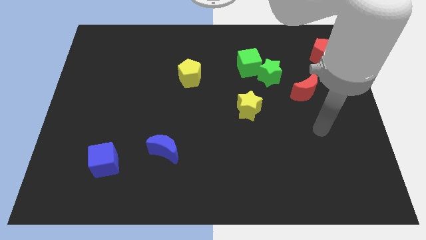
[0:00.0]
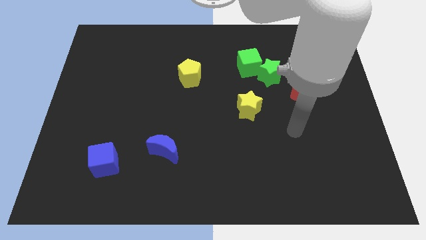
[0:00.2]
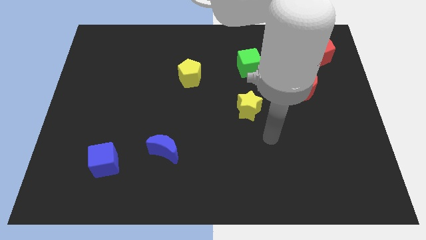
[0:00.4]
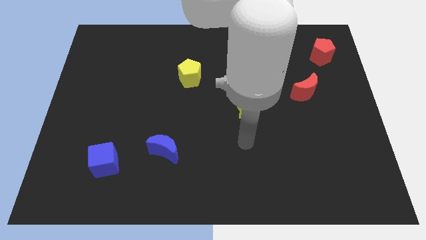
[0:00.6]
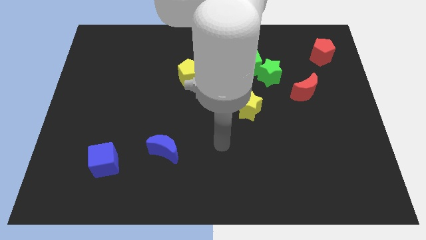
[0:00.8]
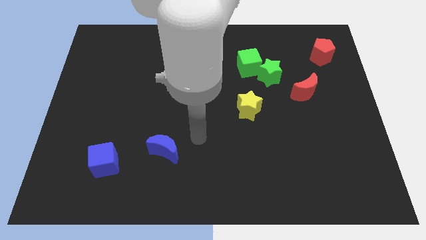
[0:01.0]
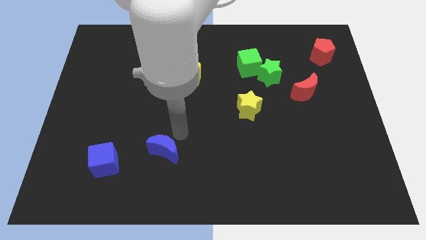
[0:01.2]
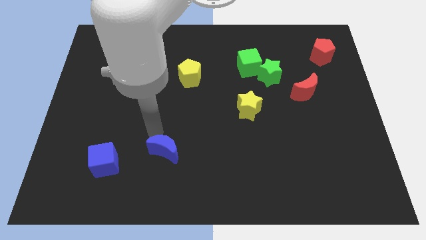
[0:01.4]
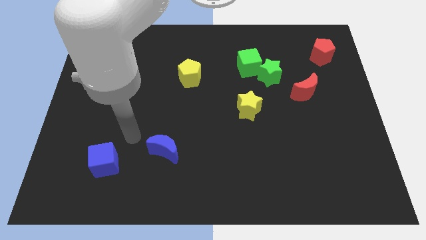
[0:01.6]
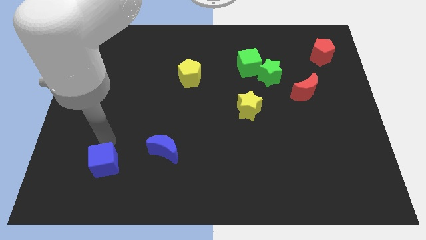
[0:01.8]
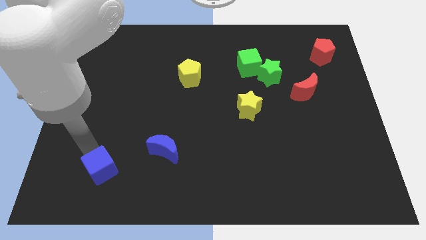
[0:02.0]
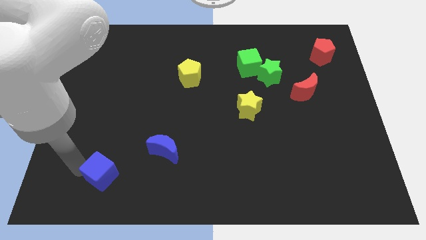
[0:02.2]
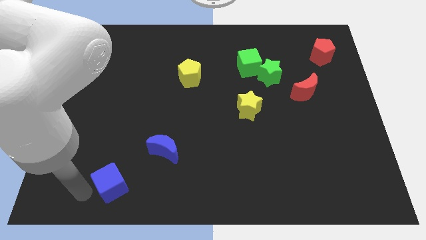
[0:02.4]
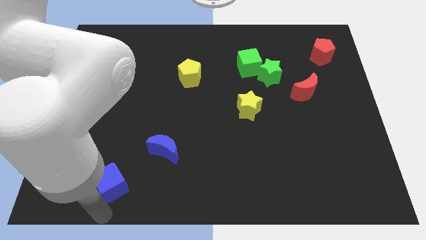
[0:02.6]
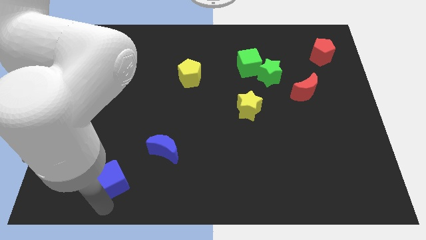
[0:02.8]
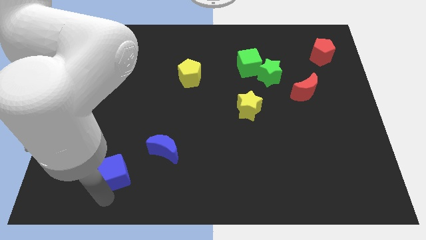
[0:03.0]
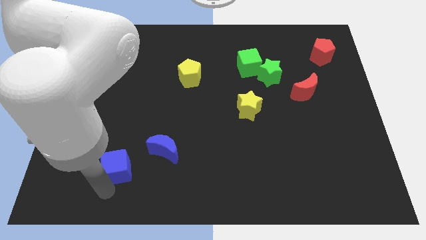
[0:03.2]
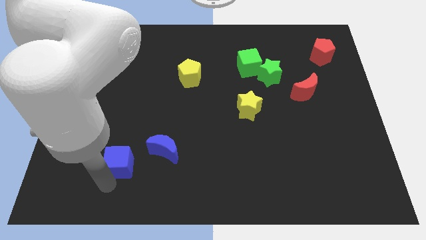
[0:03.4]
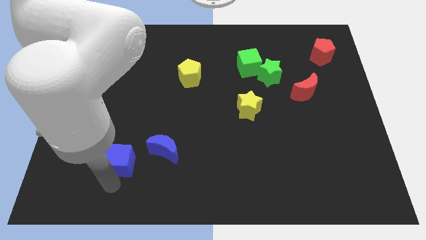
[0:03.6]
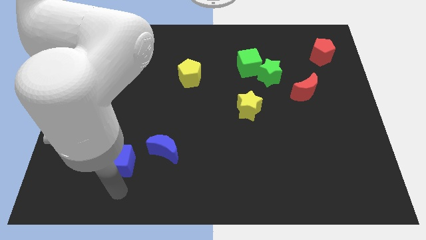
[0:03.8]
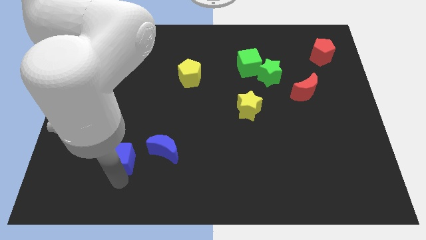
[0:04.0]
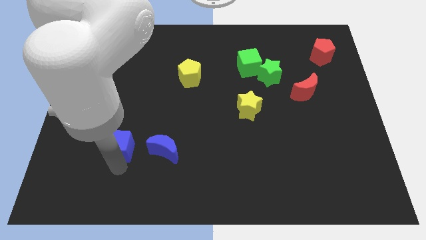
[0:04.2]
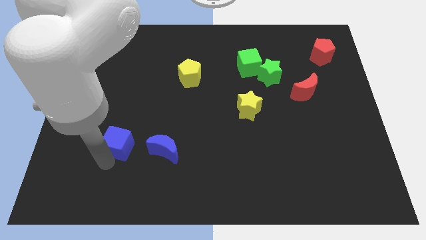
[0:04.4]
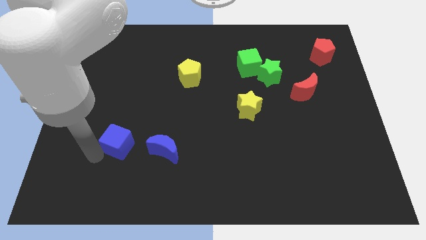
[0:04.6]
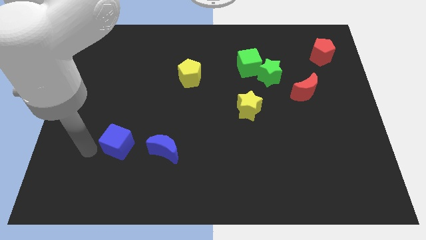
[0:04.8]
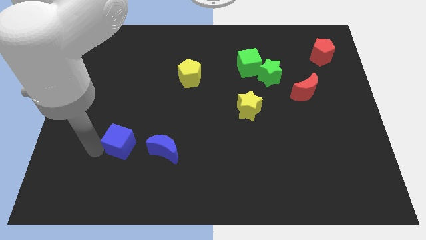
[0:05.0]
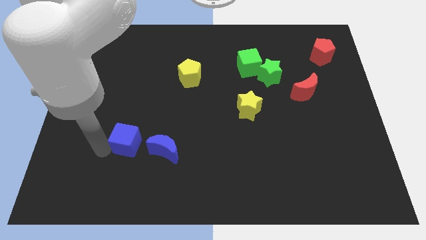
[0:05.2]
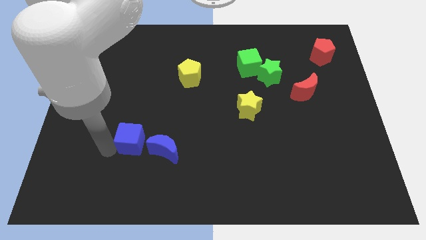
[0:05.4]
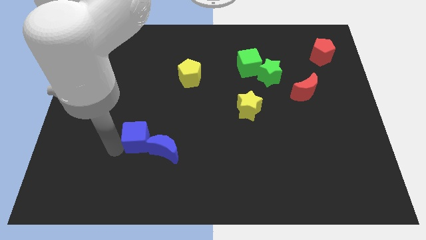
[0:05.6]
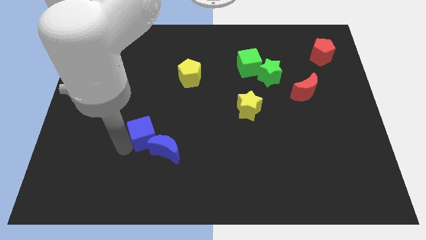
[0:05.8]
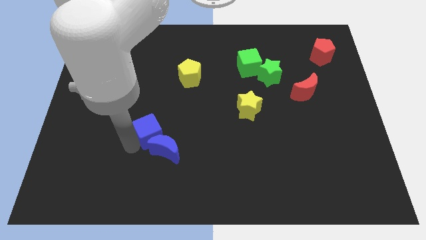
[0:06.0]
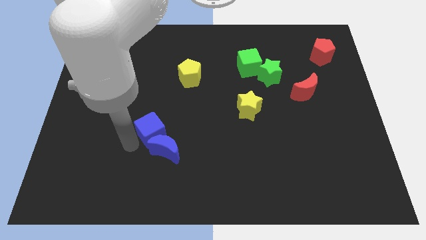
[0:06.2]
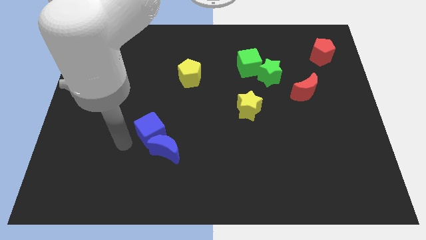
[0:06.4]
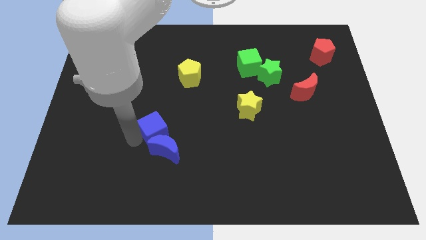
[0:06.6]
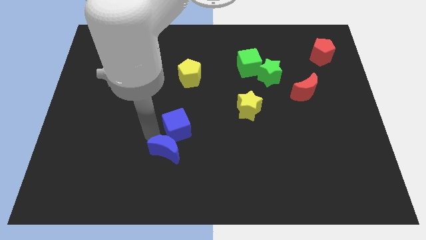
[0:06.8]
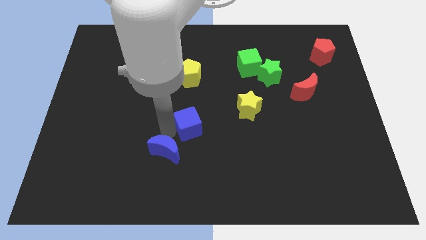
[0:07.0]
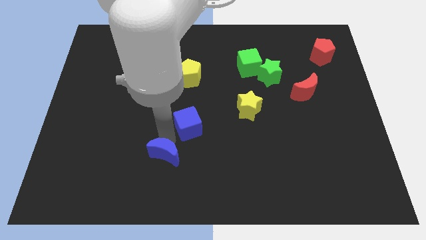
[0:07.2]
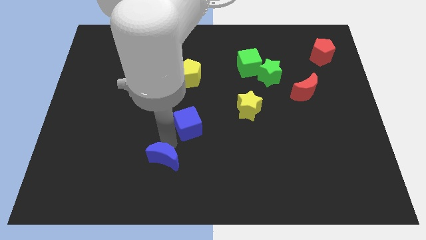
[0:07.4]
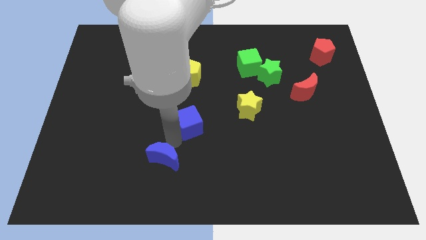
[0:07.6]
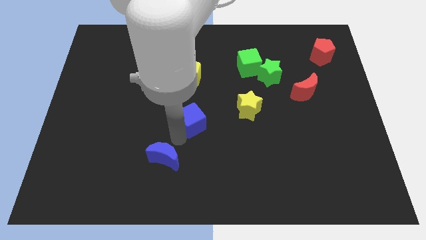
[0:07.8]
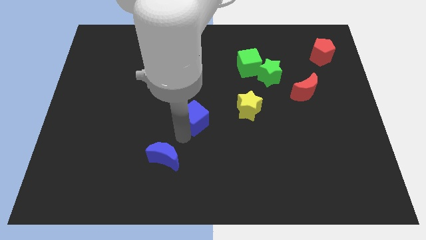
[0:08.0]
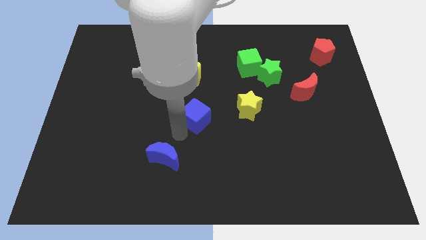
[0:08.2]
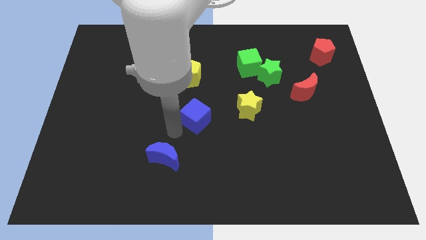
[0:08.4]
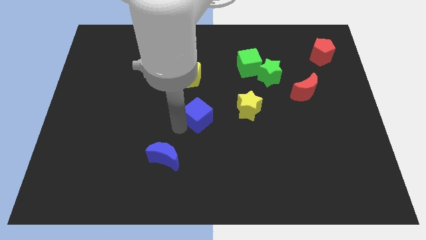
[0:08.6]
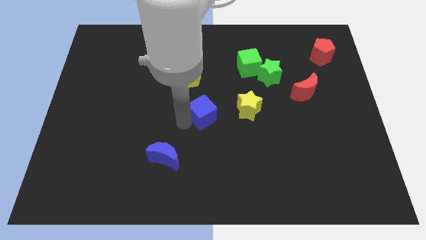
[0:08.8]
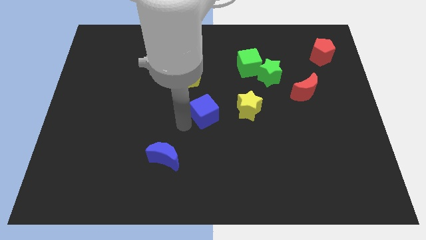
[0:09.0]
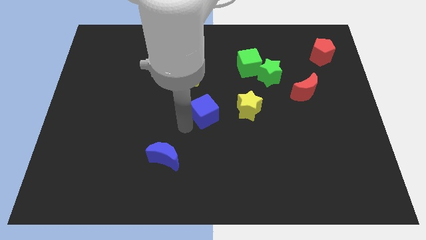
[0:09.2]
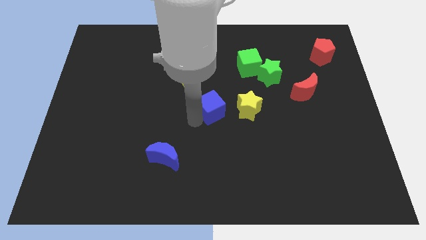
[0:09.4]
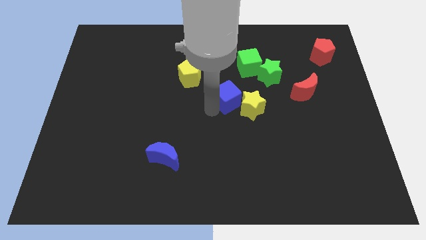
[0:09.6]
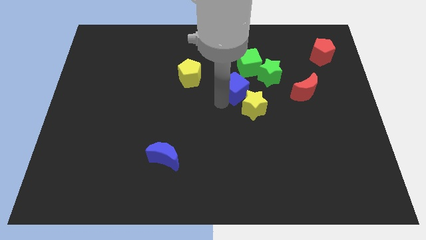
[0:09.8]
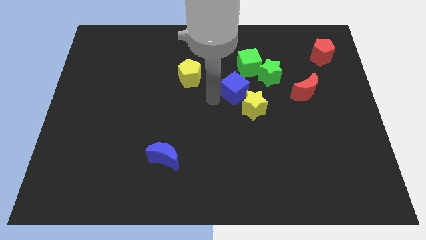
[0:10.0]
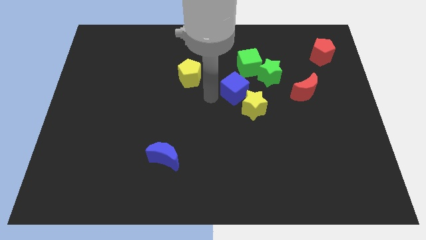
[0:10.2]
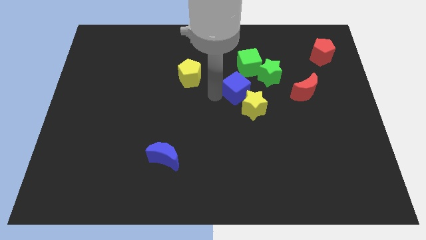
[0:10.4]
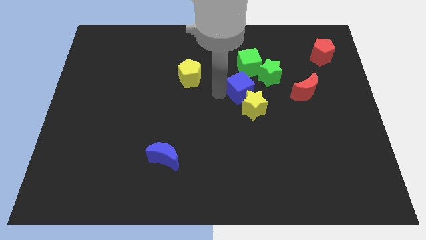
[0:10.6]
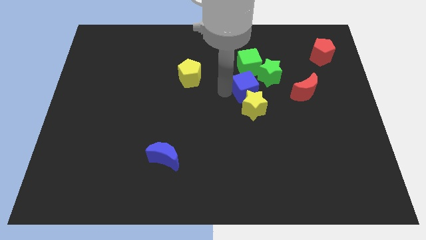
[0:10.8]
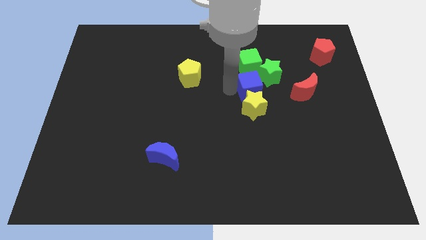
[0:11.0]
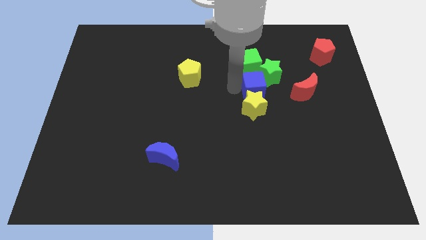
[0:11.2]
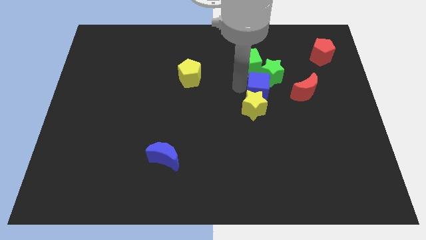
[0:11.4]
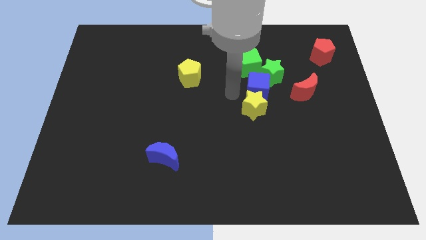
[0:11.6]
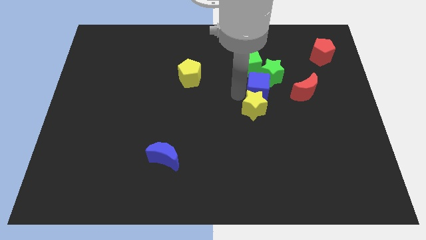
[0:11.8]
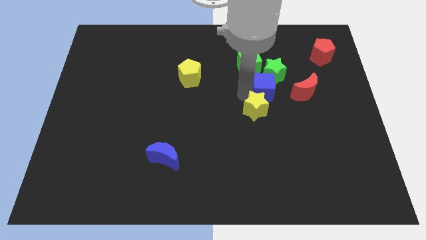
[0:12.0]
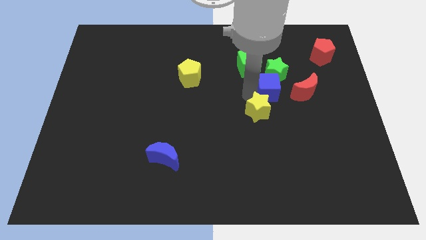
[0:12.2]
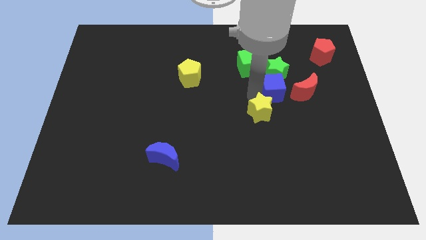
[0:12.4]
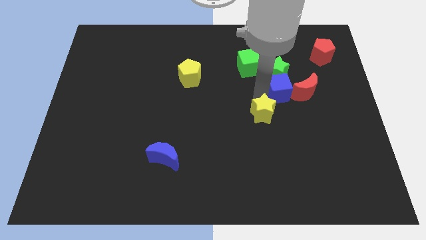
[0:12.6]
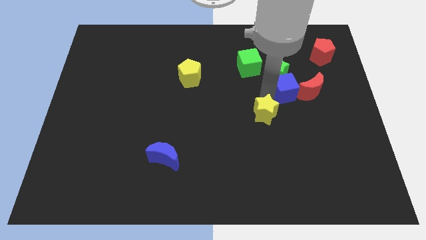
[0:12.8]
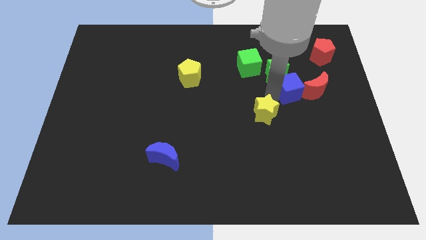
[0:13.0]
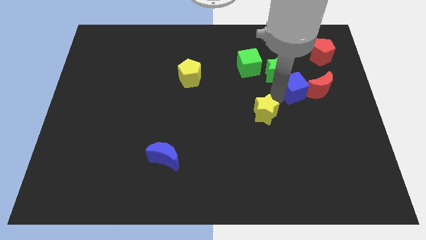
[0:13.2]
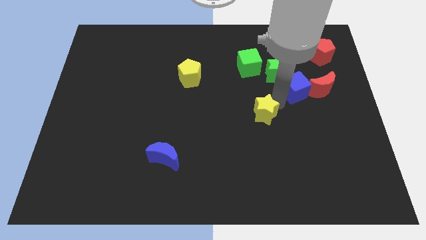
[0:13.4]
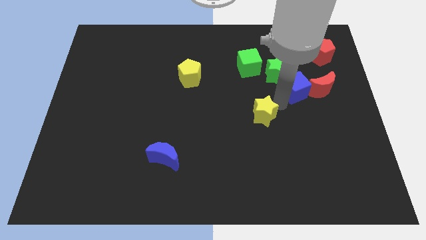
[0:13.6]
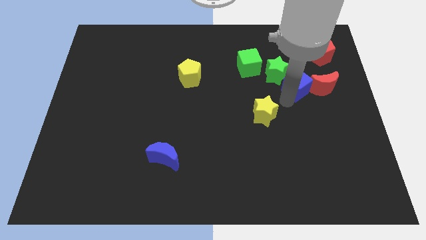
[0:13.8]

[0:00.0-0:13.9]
push the blue cube just right of the green star

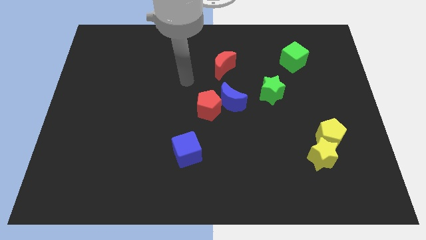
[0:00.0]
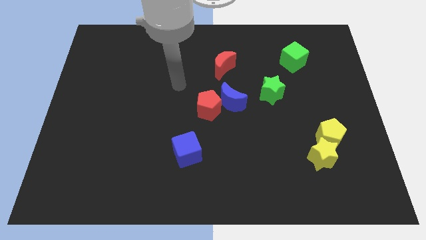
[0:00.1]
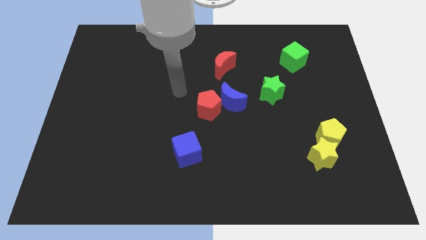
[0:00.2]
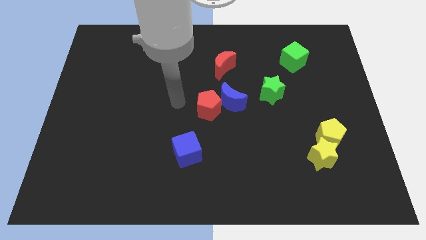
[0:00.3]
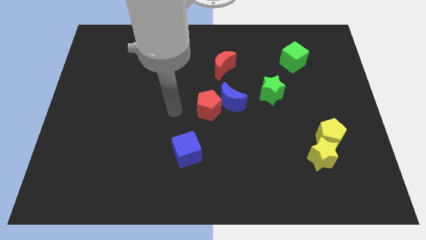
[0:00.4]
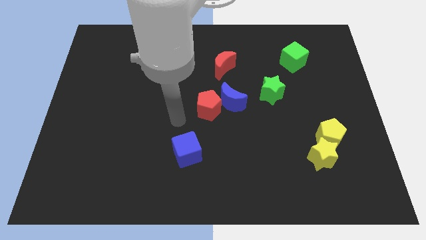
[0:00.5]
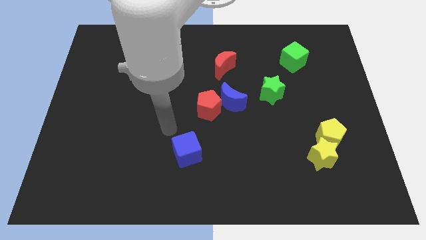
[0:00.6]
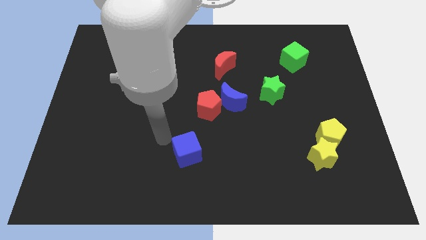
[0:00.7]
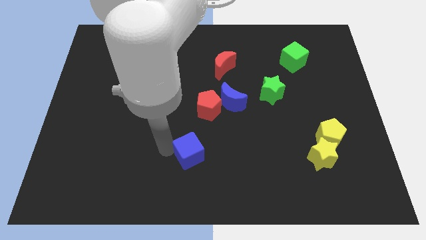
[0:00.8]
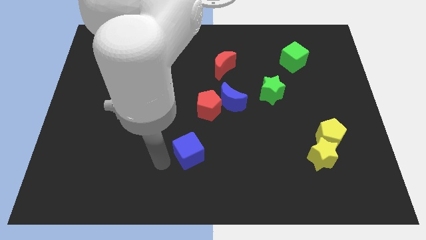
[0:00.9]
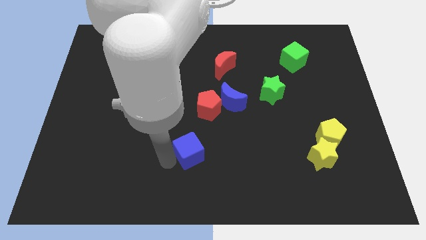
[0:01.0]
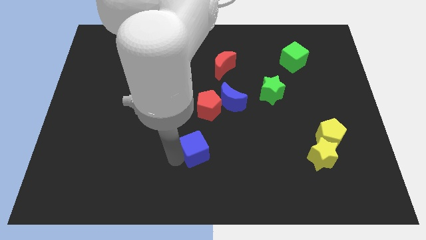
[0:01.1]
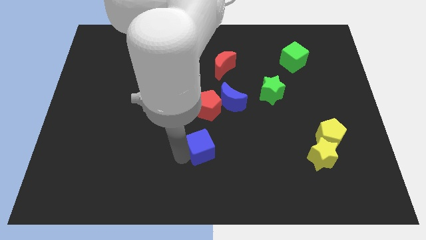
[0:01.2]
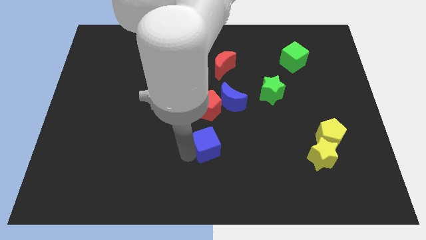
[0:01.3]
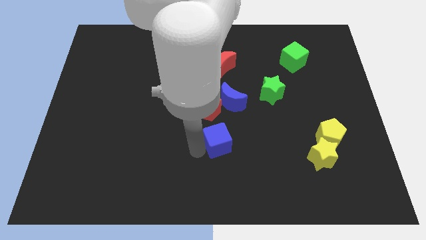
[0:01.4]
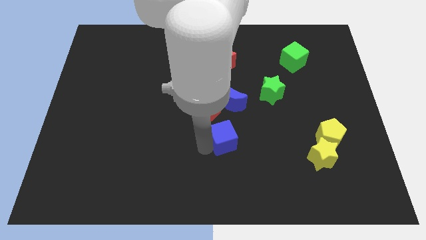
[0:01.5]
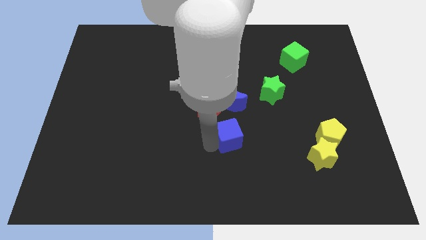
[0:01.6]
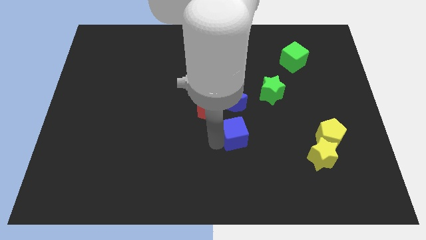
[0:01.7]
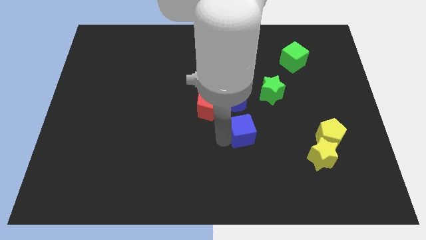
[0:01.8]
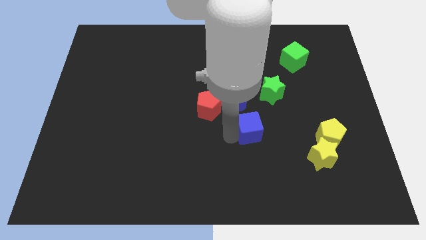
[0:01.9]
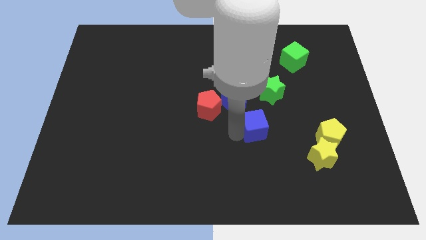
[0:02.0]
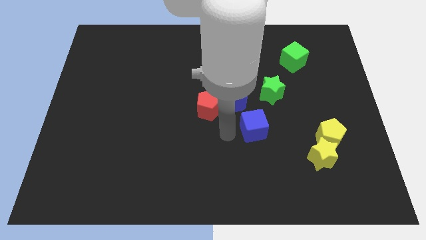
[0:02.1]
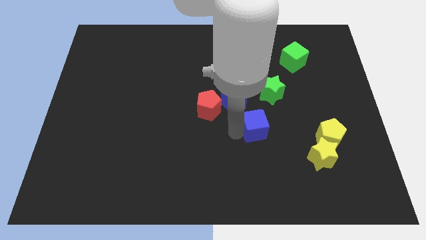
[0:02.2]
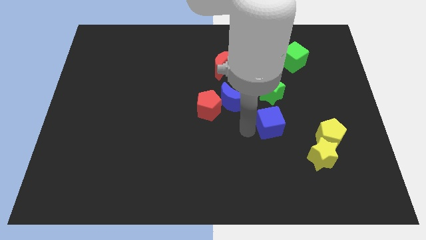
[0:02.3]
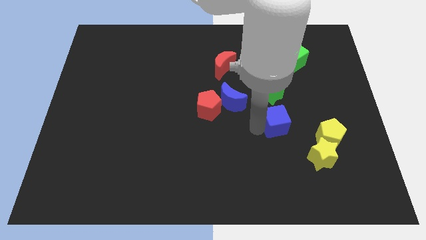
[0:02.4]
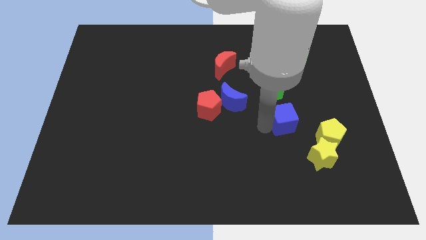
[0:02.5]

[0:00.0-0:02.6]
push the blue cube diagonally up and to the left of the yellow pentagon
